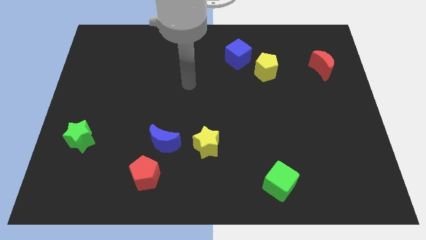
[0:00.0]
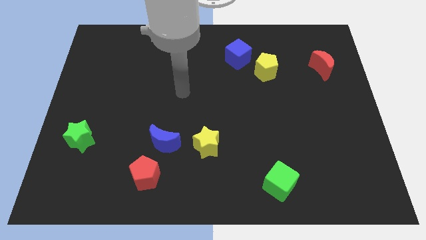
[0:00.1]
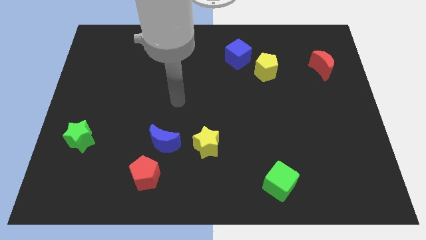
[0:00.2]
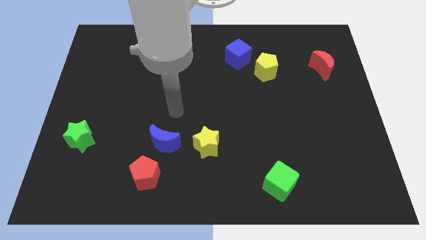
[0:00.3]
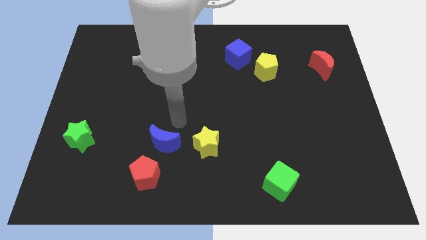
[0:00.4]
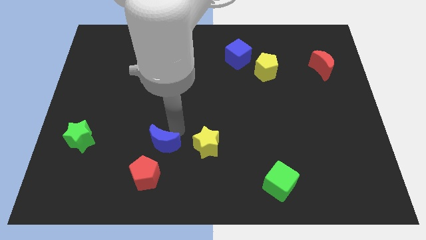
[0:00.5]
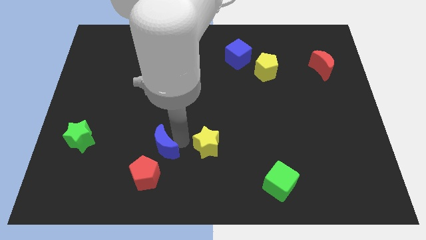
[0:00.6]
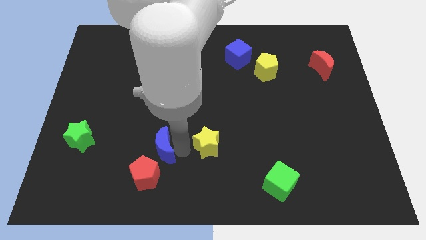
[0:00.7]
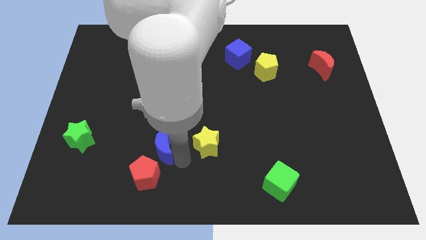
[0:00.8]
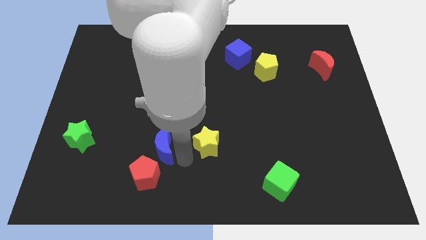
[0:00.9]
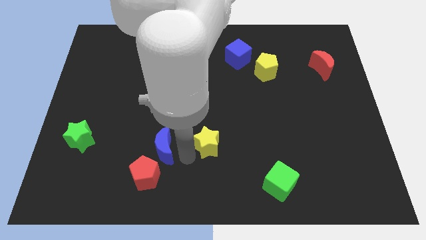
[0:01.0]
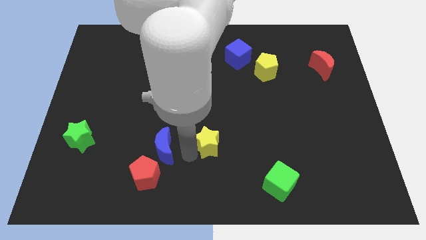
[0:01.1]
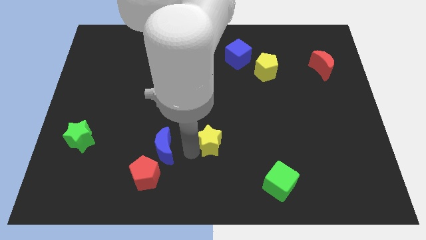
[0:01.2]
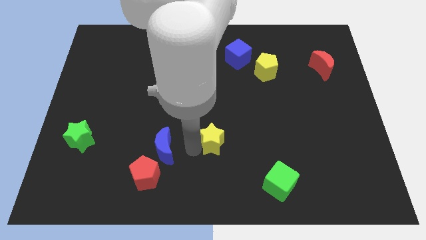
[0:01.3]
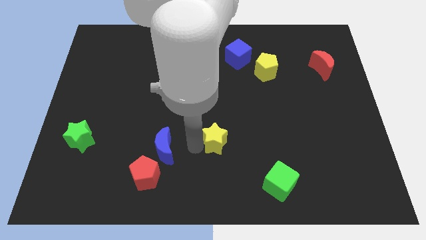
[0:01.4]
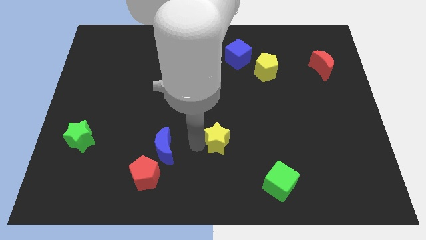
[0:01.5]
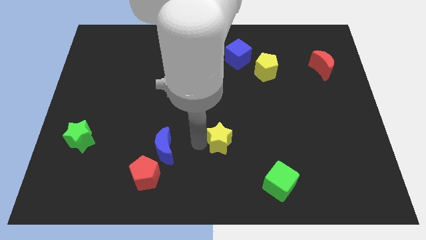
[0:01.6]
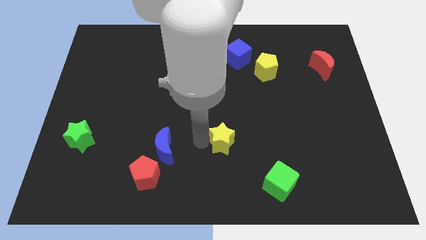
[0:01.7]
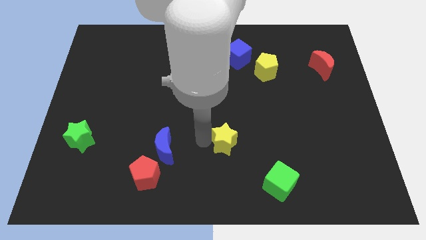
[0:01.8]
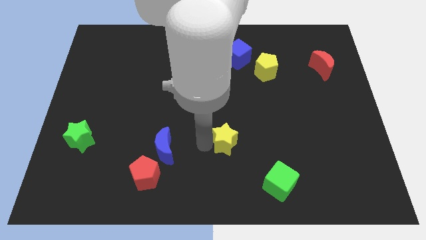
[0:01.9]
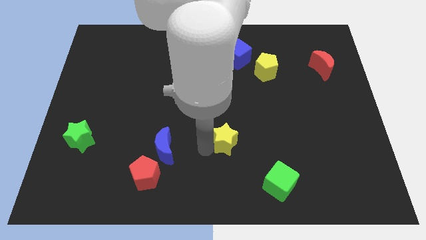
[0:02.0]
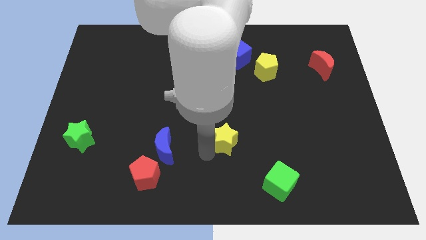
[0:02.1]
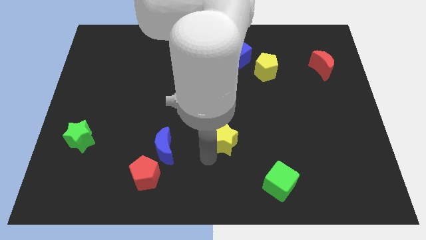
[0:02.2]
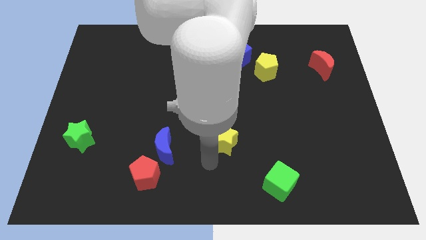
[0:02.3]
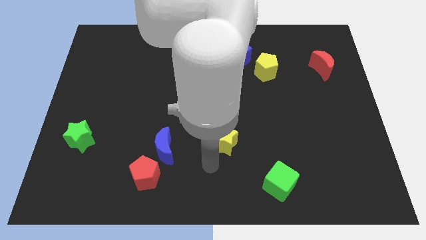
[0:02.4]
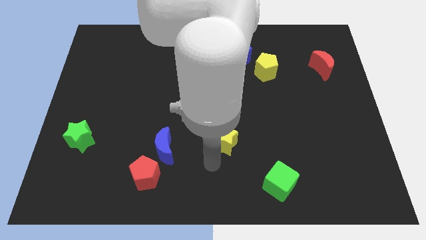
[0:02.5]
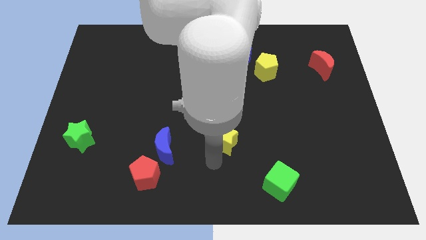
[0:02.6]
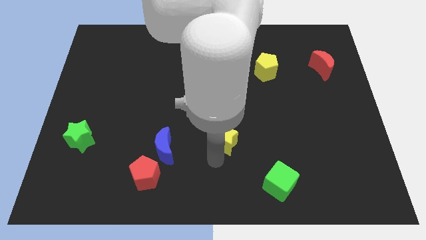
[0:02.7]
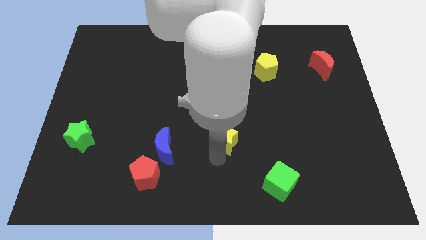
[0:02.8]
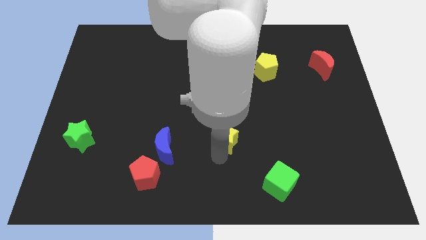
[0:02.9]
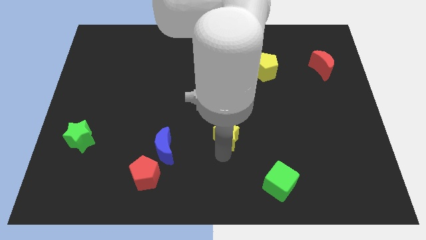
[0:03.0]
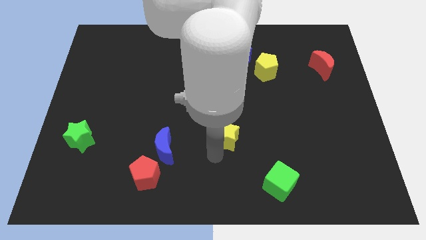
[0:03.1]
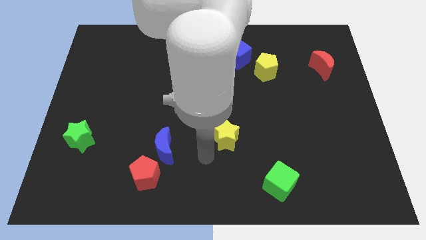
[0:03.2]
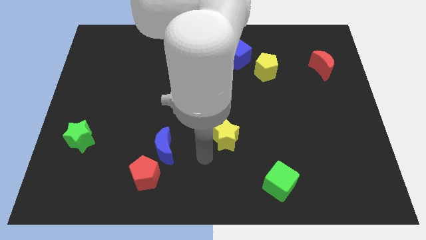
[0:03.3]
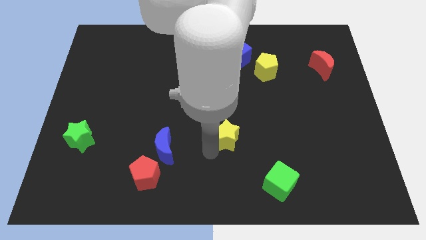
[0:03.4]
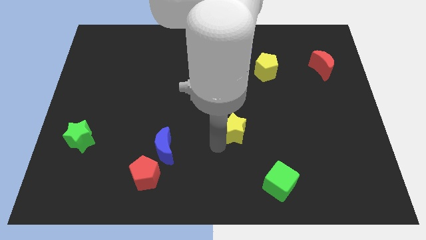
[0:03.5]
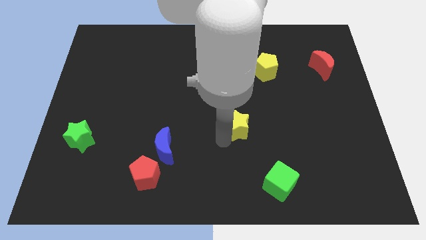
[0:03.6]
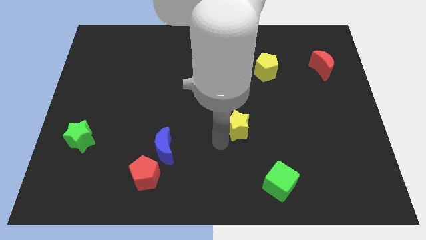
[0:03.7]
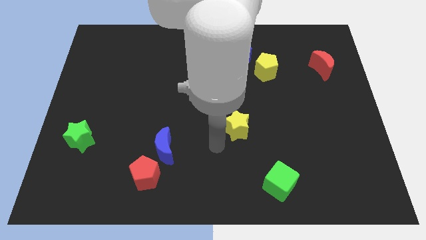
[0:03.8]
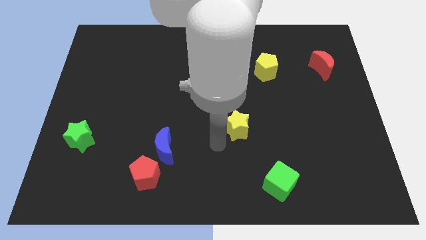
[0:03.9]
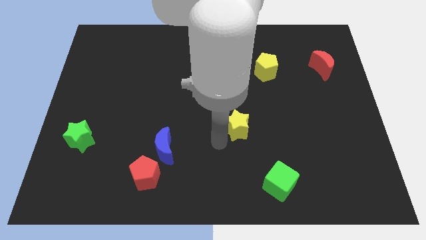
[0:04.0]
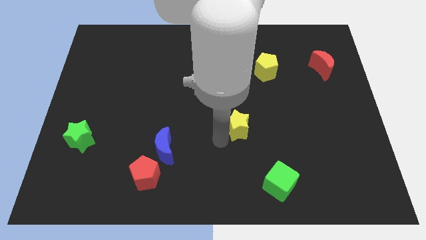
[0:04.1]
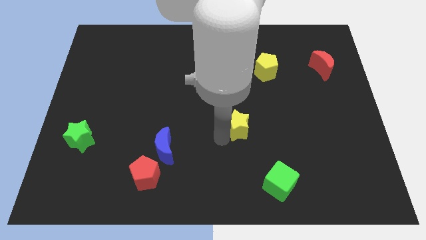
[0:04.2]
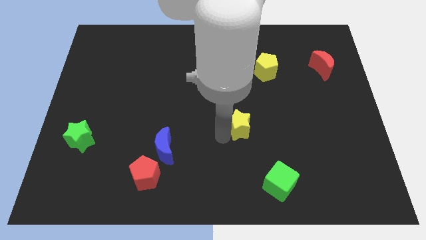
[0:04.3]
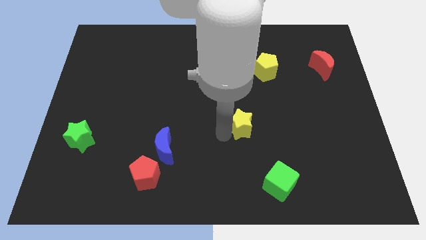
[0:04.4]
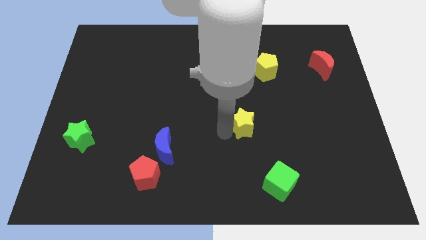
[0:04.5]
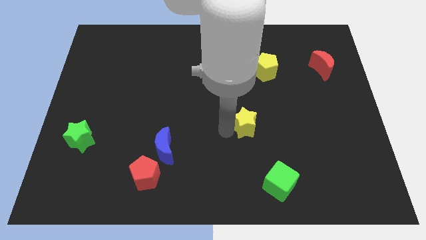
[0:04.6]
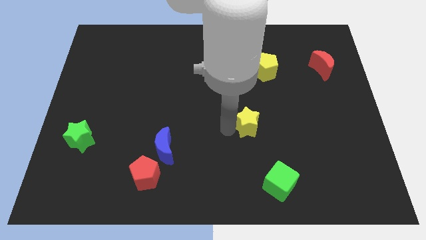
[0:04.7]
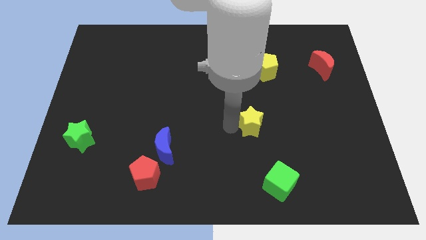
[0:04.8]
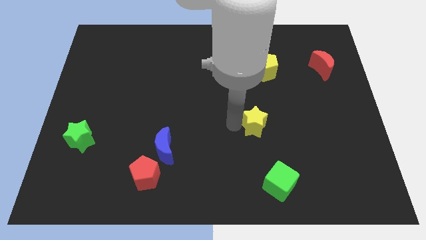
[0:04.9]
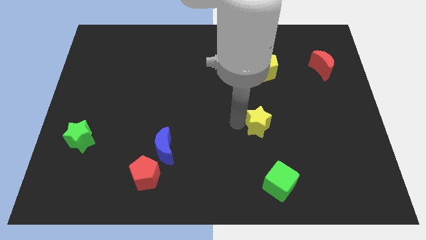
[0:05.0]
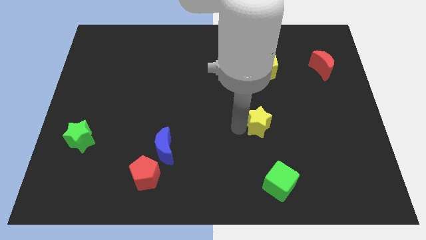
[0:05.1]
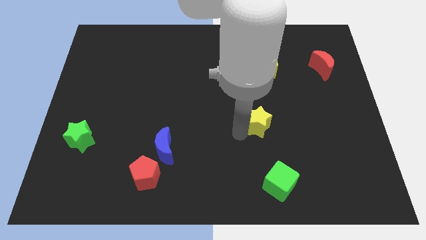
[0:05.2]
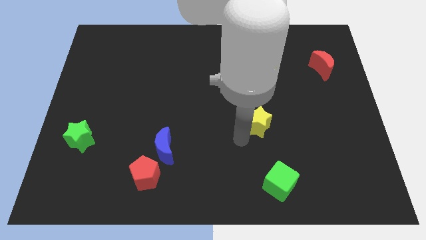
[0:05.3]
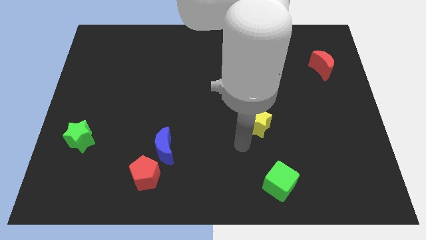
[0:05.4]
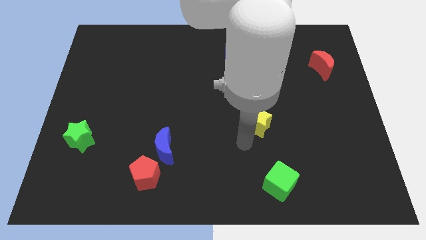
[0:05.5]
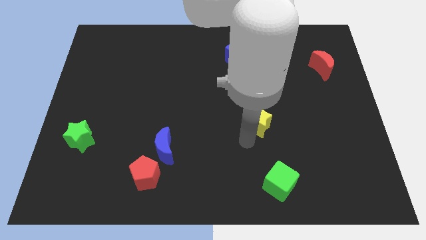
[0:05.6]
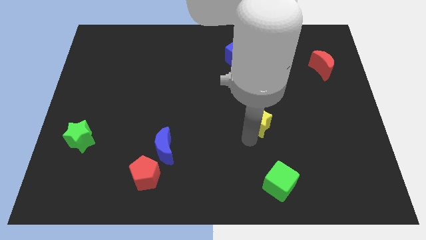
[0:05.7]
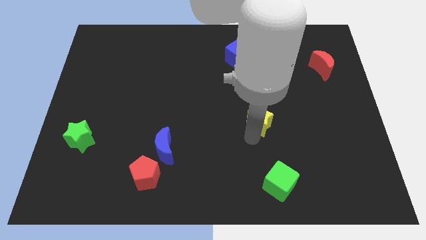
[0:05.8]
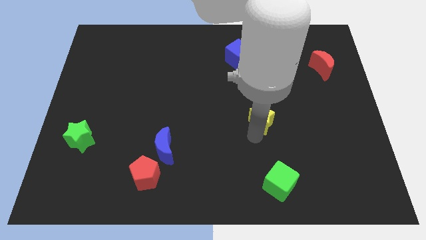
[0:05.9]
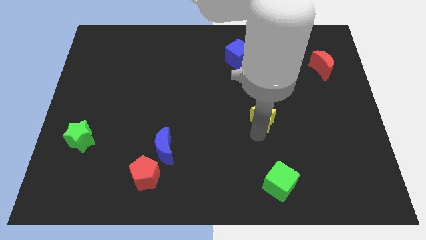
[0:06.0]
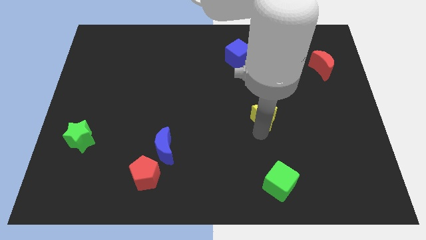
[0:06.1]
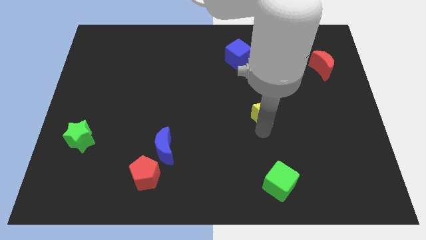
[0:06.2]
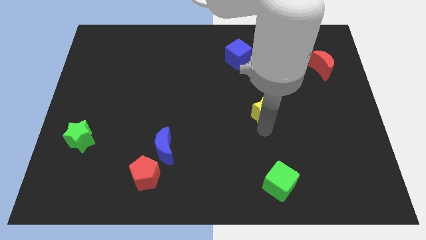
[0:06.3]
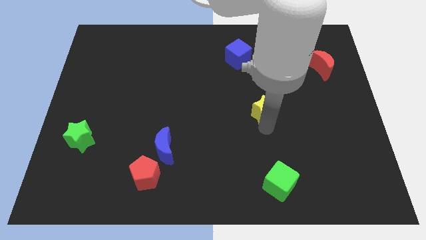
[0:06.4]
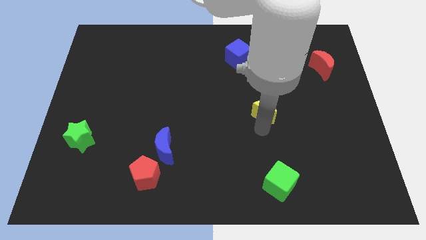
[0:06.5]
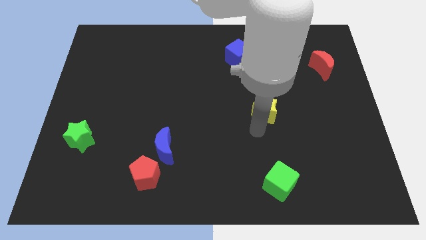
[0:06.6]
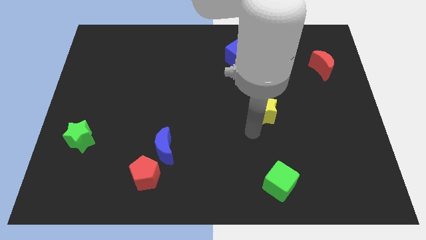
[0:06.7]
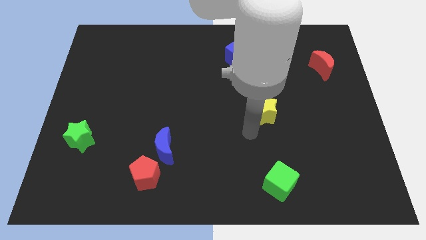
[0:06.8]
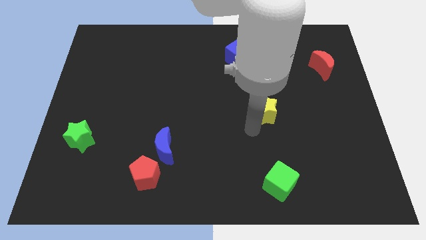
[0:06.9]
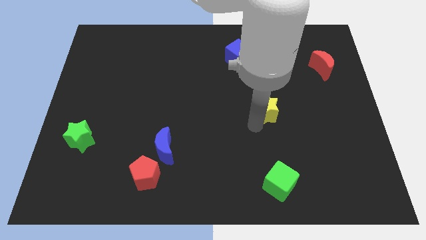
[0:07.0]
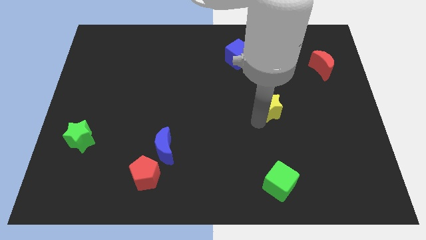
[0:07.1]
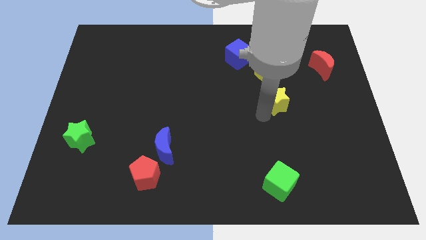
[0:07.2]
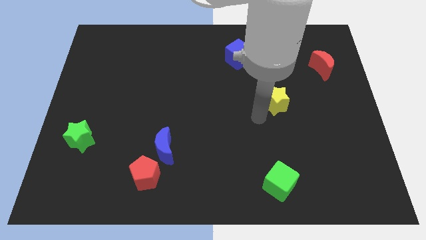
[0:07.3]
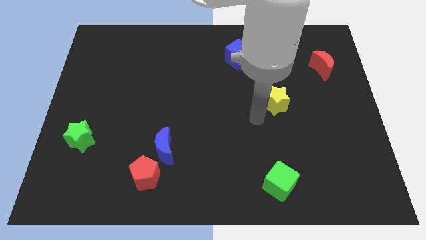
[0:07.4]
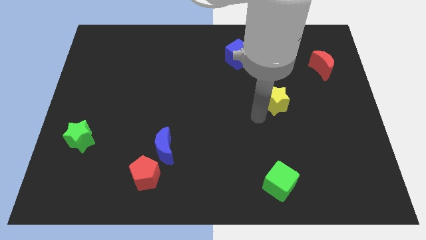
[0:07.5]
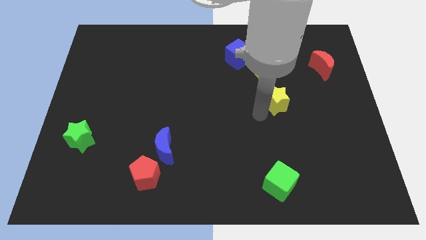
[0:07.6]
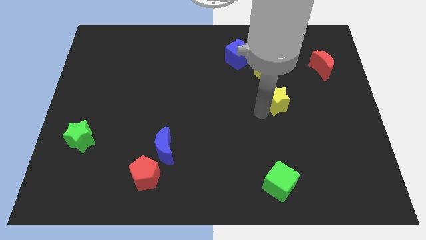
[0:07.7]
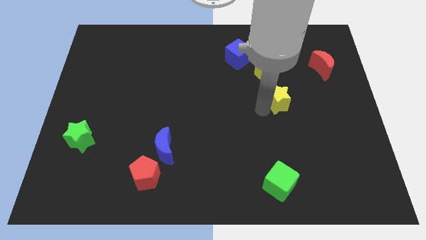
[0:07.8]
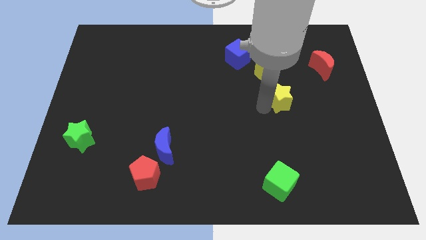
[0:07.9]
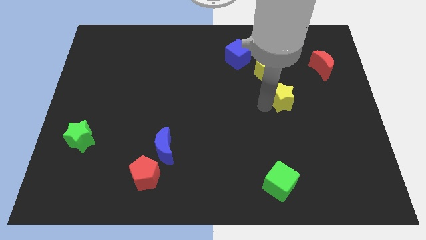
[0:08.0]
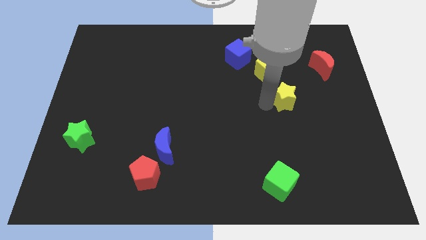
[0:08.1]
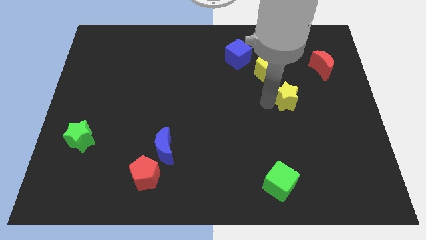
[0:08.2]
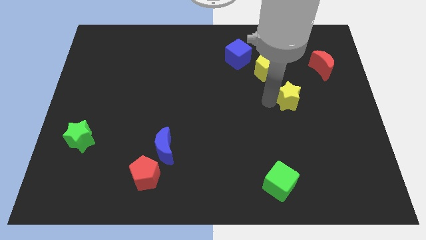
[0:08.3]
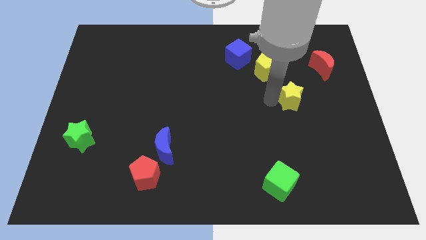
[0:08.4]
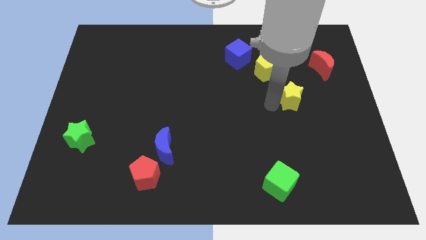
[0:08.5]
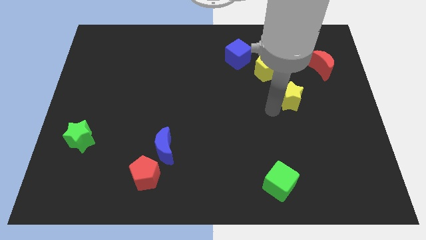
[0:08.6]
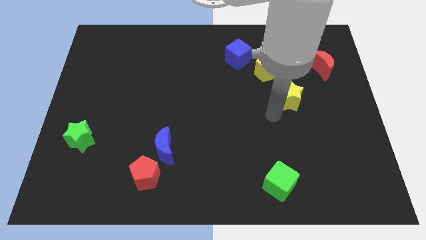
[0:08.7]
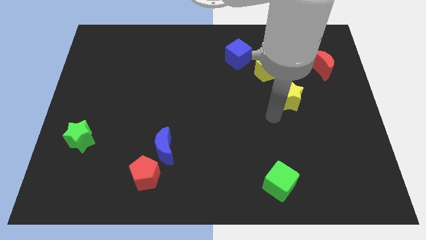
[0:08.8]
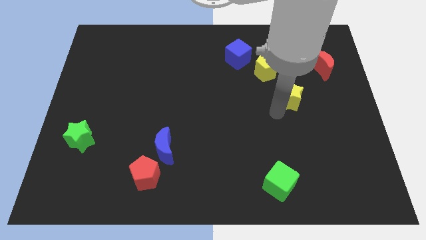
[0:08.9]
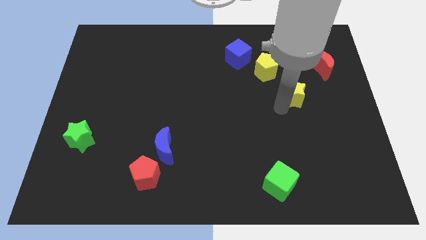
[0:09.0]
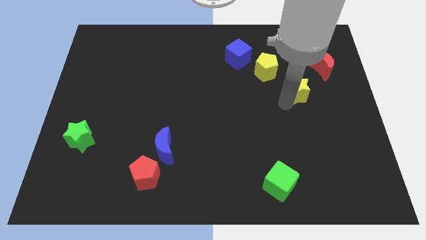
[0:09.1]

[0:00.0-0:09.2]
slide the yellow star diagonally down and to the left of the red moon
